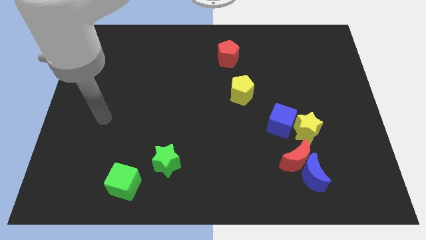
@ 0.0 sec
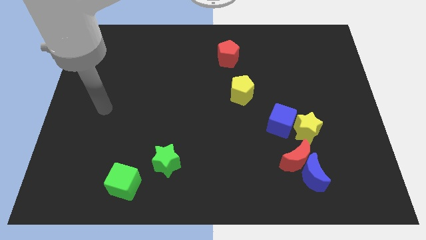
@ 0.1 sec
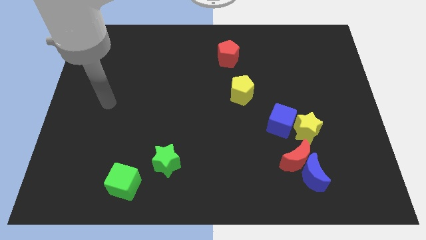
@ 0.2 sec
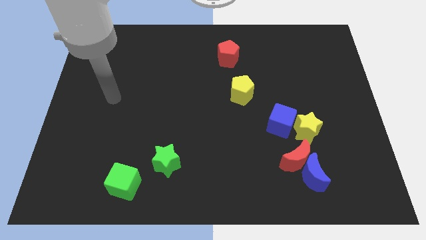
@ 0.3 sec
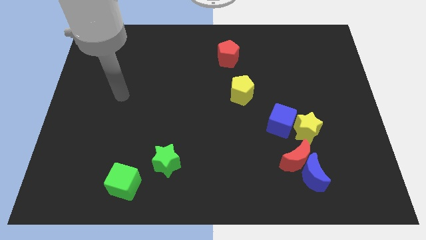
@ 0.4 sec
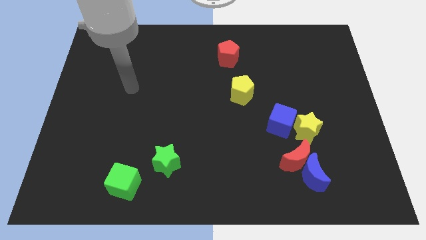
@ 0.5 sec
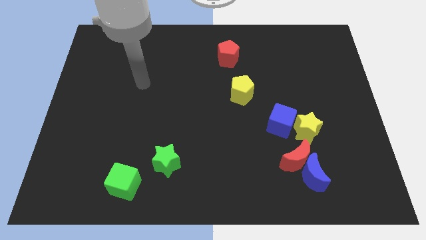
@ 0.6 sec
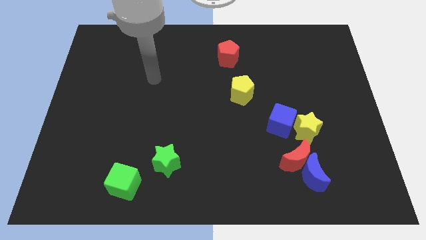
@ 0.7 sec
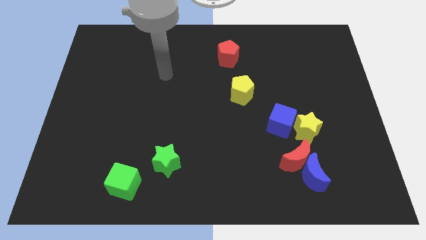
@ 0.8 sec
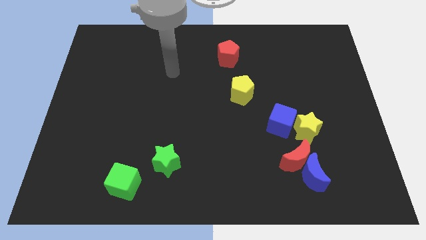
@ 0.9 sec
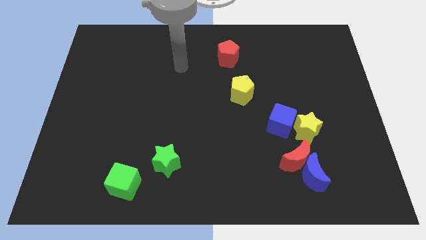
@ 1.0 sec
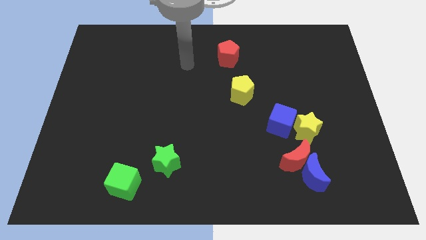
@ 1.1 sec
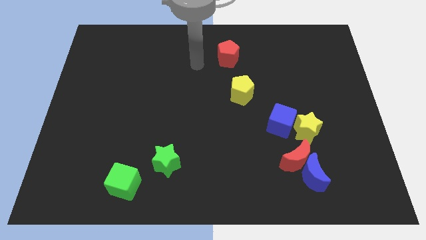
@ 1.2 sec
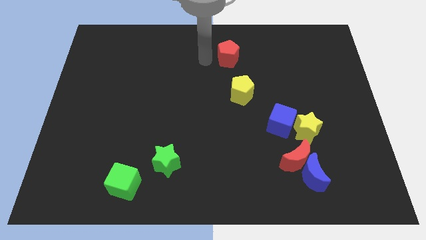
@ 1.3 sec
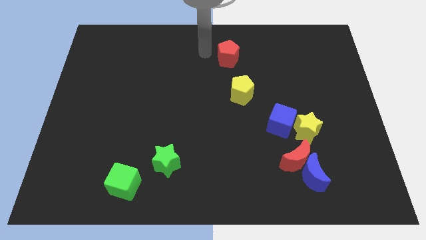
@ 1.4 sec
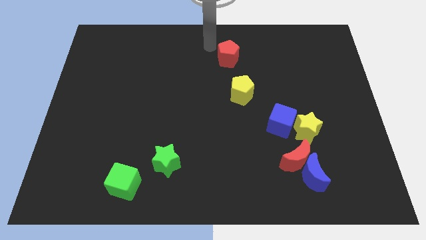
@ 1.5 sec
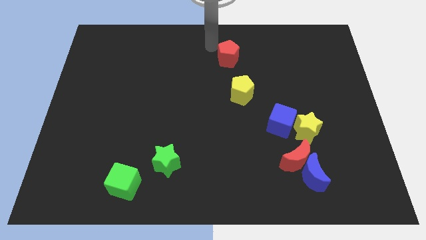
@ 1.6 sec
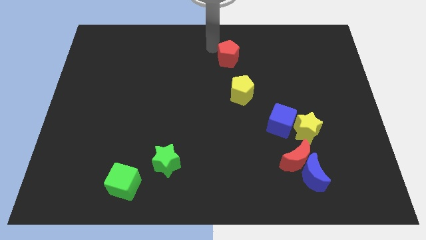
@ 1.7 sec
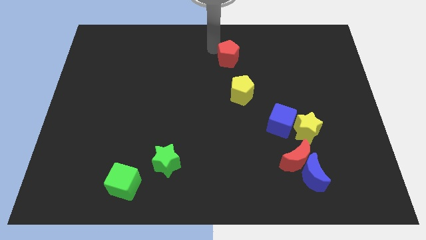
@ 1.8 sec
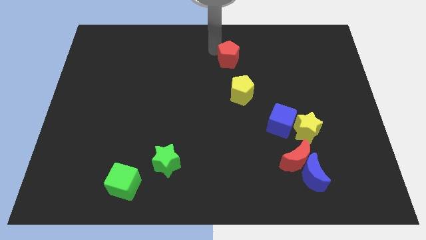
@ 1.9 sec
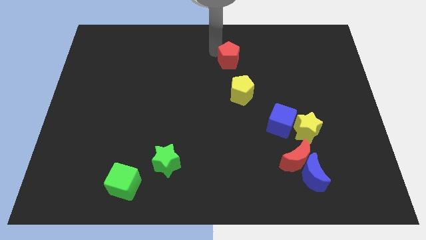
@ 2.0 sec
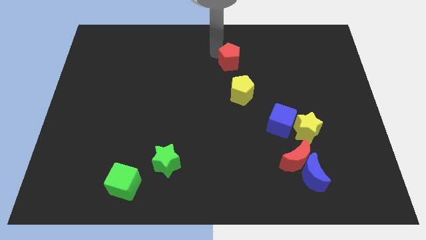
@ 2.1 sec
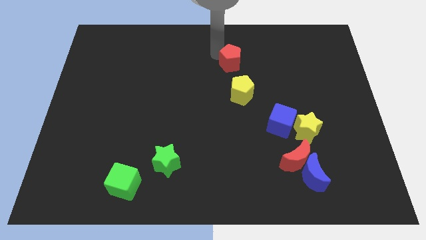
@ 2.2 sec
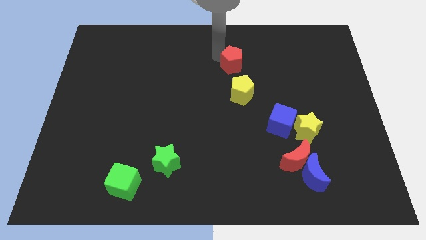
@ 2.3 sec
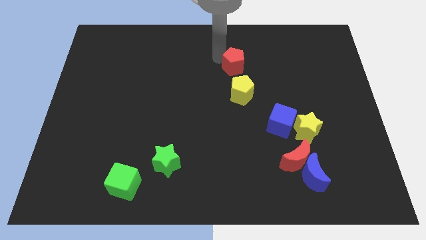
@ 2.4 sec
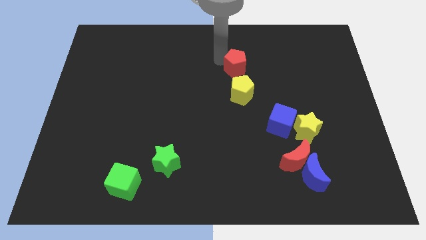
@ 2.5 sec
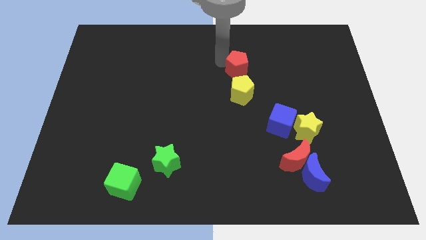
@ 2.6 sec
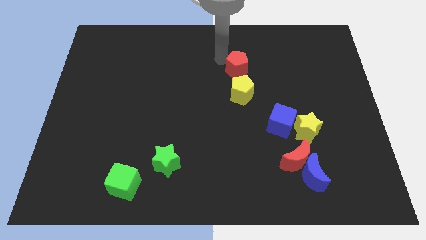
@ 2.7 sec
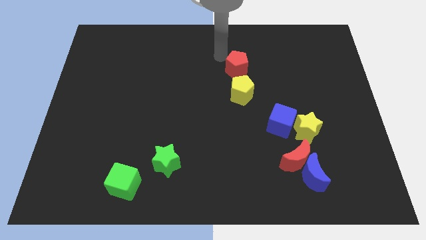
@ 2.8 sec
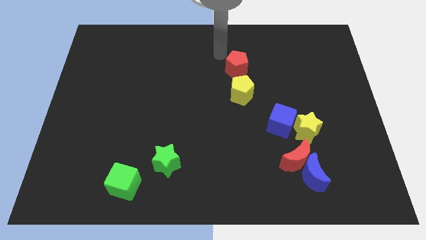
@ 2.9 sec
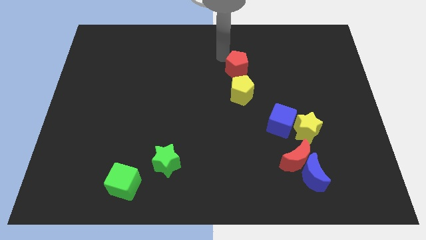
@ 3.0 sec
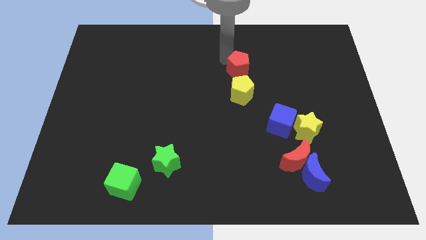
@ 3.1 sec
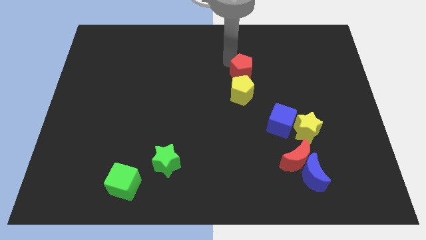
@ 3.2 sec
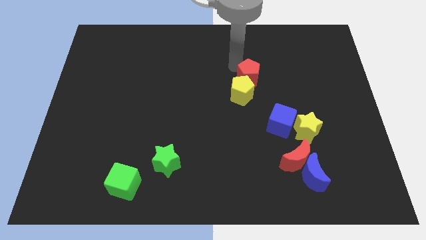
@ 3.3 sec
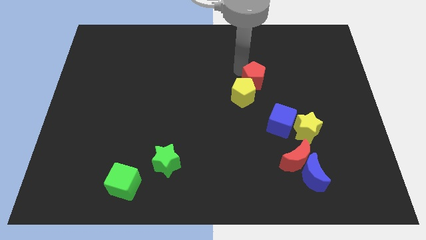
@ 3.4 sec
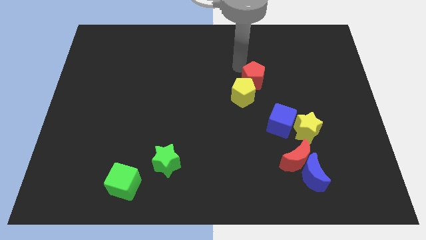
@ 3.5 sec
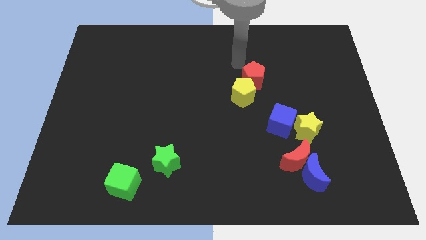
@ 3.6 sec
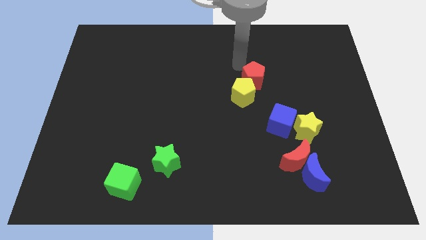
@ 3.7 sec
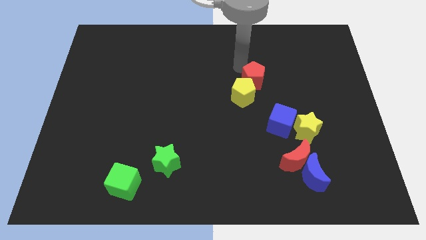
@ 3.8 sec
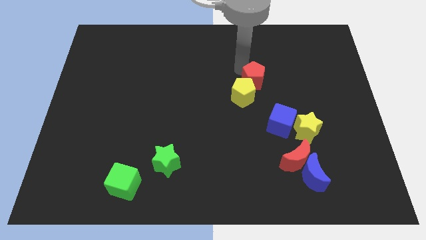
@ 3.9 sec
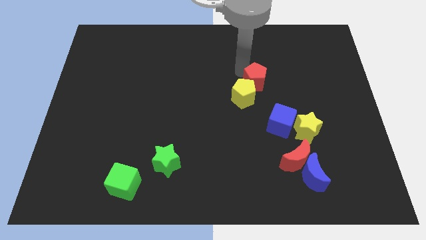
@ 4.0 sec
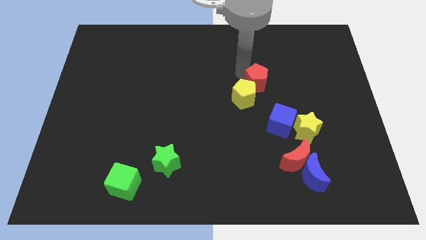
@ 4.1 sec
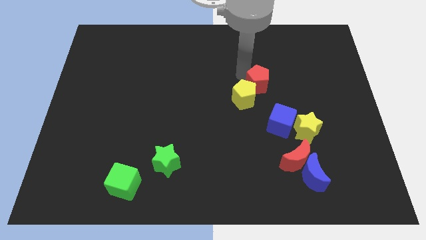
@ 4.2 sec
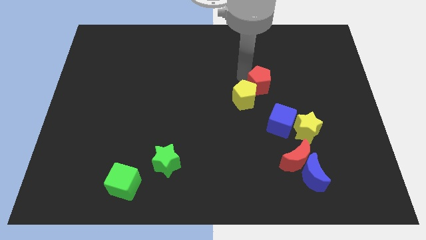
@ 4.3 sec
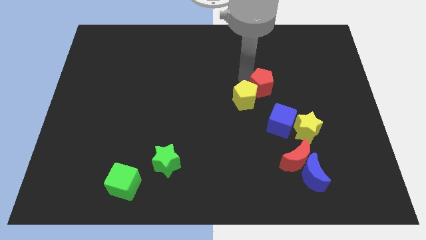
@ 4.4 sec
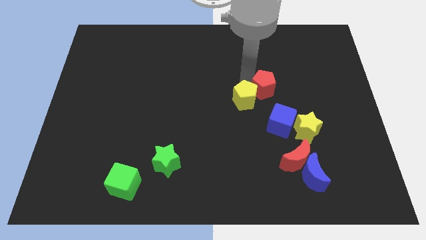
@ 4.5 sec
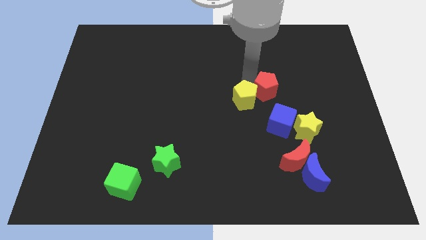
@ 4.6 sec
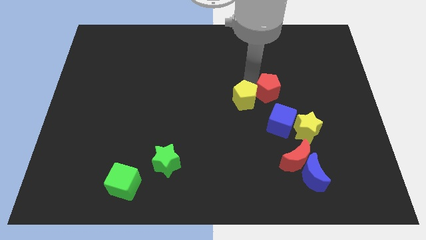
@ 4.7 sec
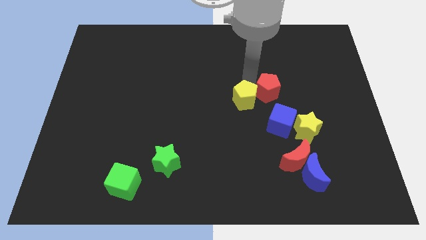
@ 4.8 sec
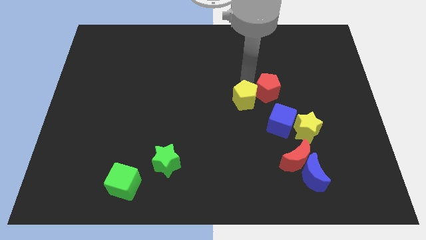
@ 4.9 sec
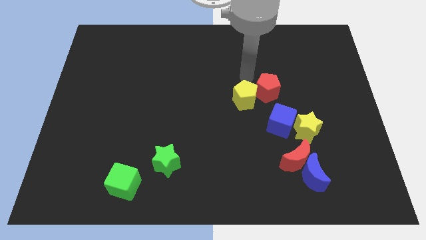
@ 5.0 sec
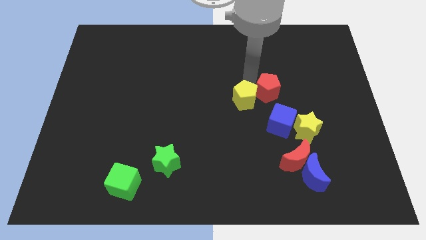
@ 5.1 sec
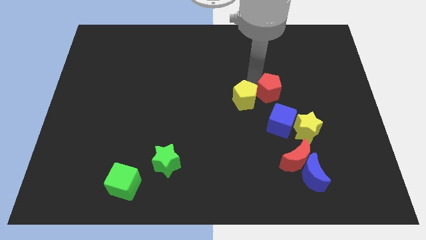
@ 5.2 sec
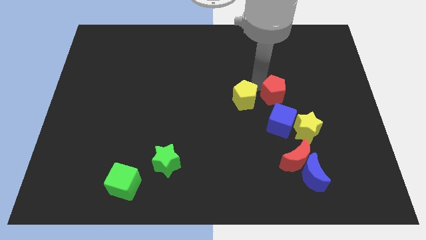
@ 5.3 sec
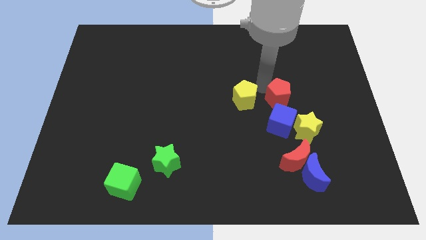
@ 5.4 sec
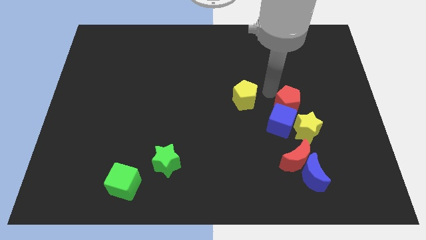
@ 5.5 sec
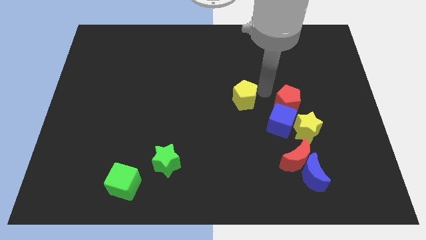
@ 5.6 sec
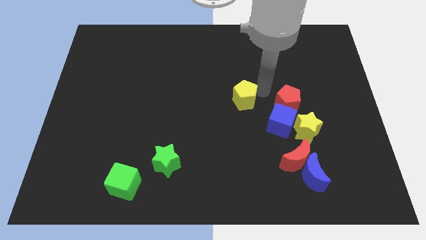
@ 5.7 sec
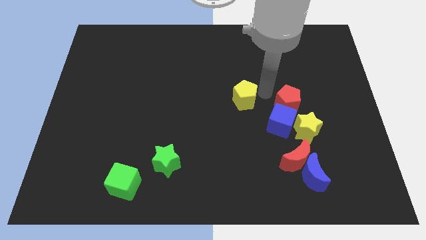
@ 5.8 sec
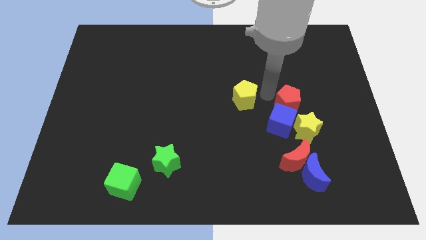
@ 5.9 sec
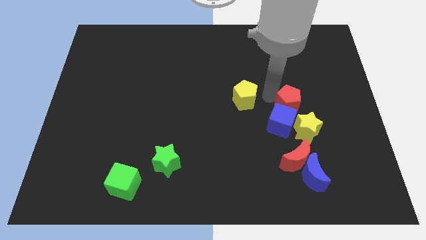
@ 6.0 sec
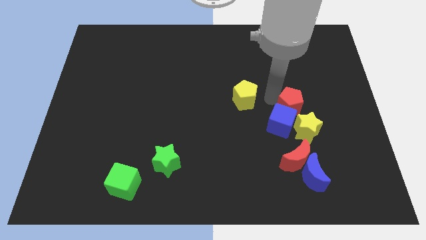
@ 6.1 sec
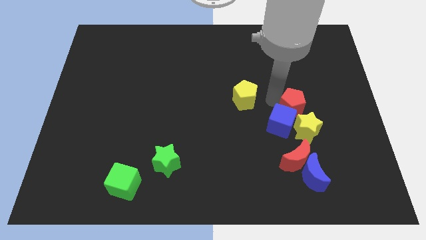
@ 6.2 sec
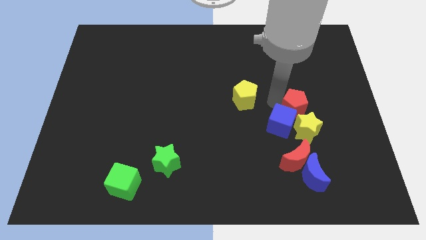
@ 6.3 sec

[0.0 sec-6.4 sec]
slide the red pentagon just right of the blue cube
